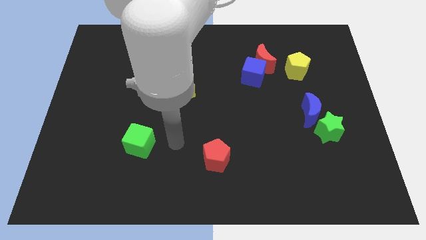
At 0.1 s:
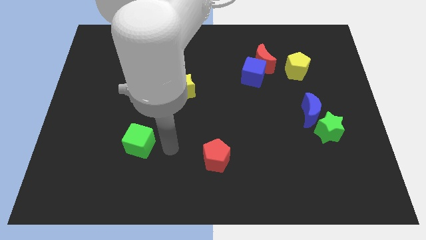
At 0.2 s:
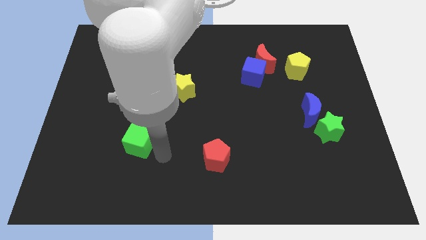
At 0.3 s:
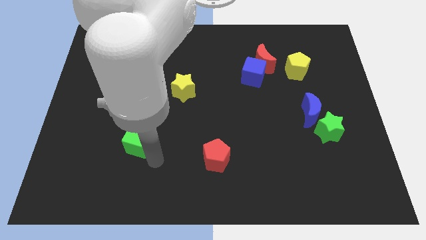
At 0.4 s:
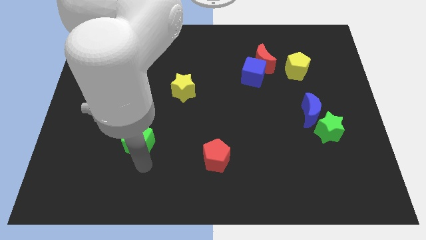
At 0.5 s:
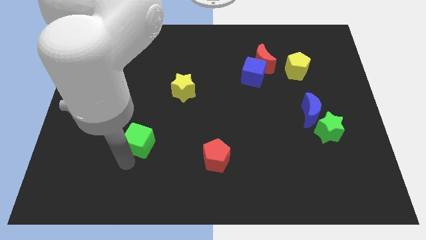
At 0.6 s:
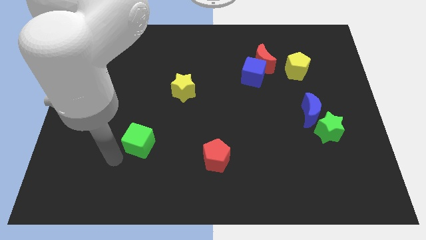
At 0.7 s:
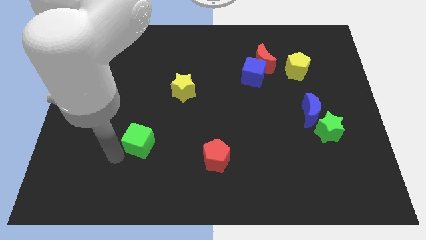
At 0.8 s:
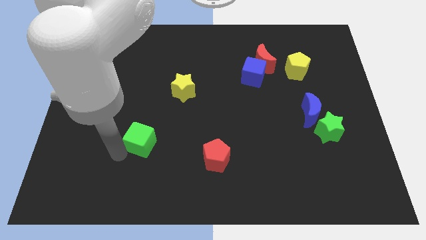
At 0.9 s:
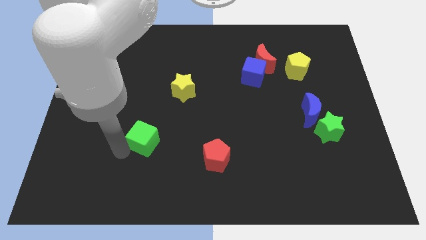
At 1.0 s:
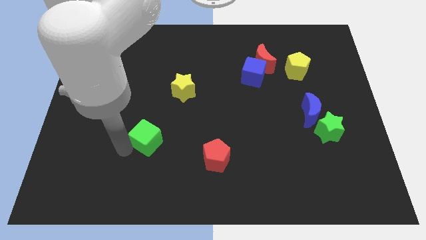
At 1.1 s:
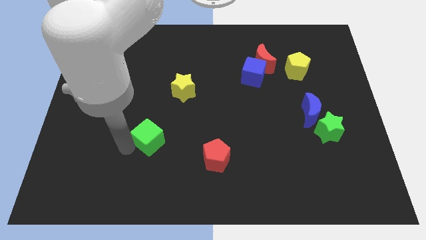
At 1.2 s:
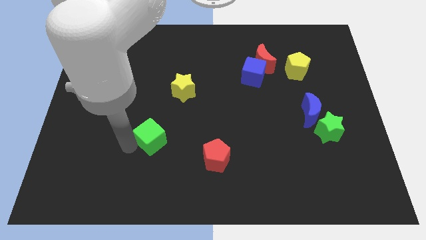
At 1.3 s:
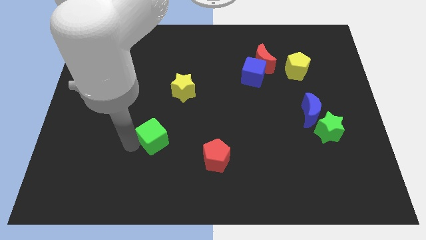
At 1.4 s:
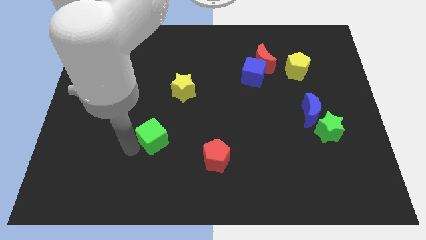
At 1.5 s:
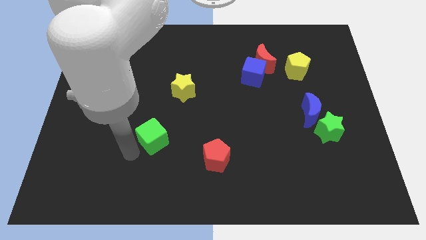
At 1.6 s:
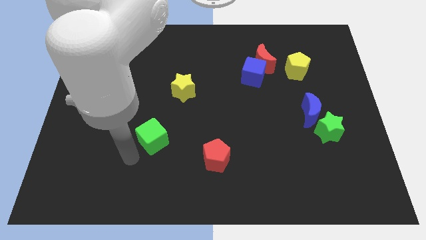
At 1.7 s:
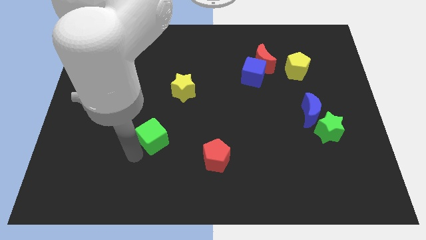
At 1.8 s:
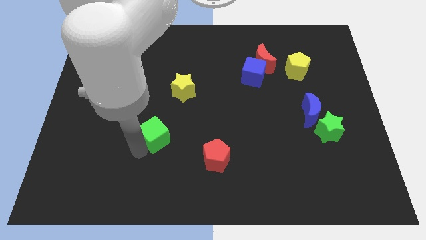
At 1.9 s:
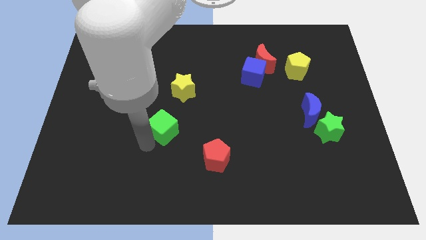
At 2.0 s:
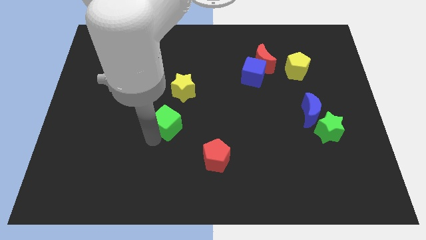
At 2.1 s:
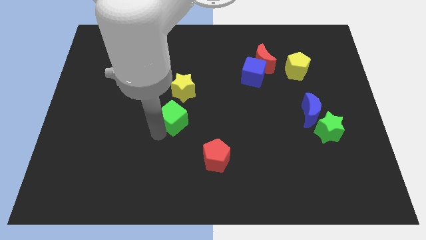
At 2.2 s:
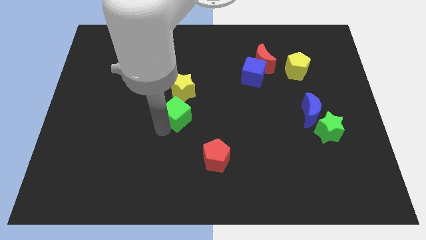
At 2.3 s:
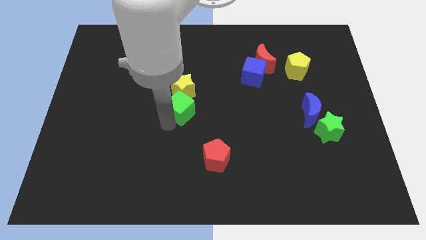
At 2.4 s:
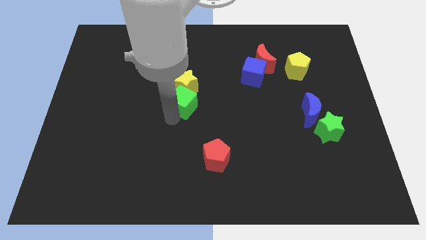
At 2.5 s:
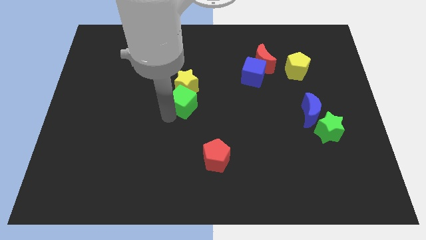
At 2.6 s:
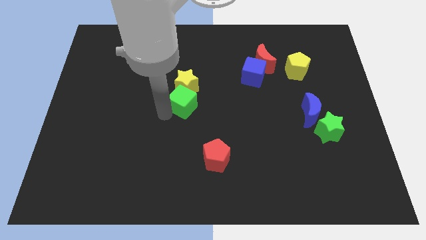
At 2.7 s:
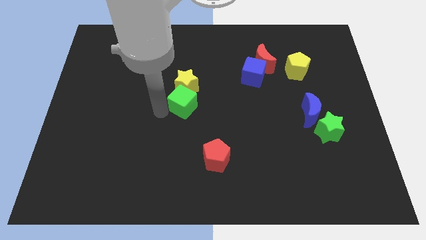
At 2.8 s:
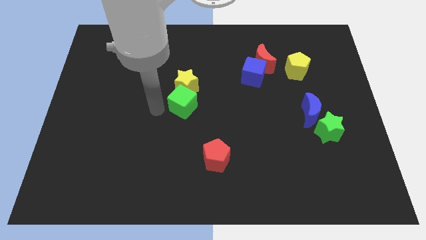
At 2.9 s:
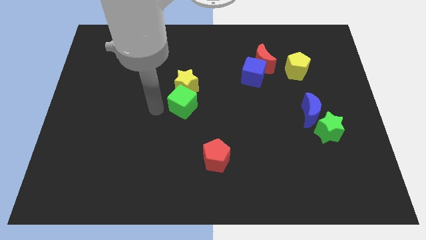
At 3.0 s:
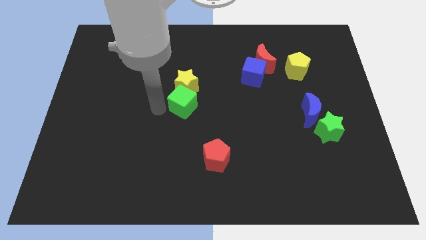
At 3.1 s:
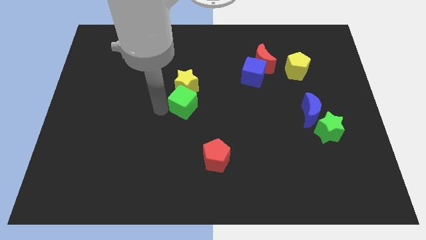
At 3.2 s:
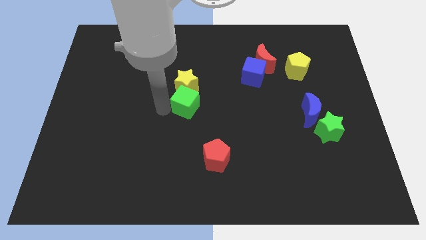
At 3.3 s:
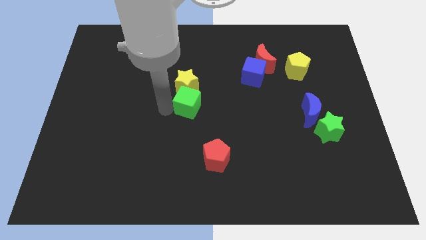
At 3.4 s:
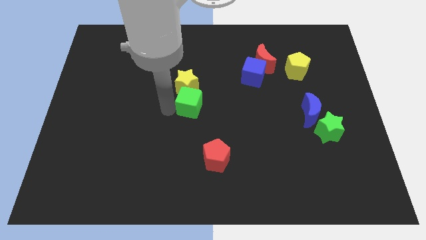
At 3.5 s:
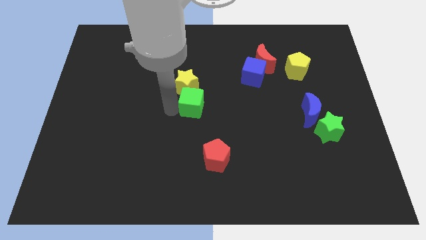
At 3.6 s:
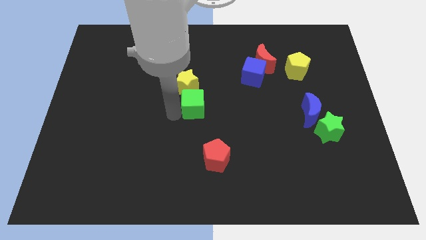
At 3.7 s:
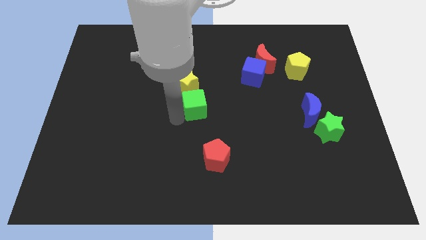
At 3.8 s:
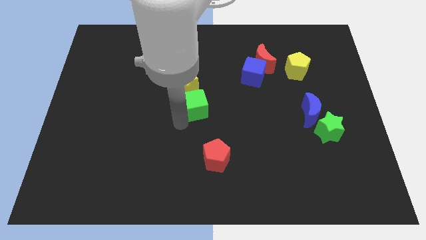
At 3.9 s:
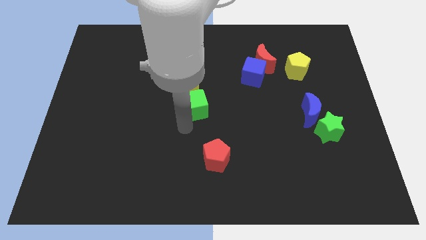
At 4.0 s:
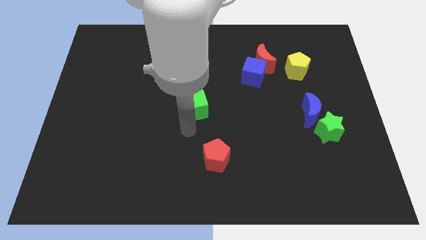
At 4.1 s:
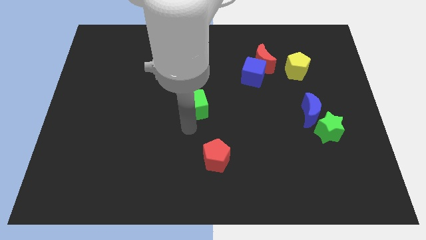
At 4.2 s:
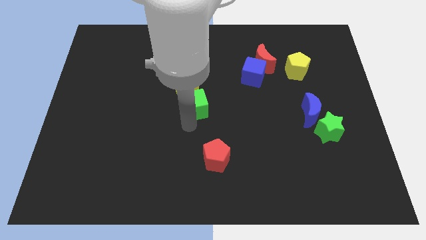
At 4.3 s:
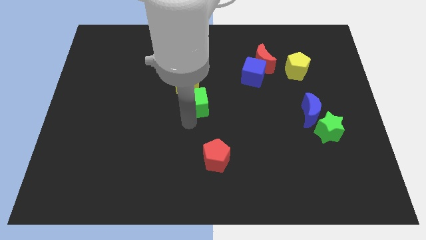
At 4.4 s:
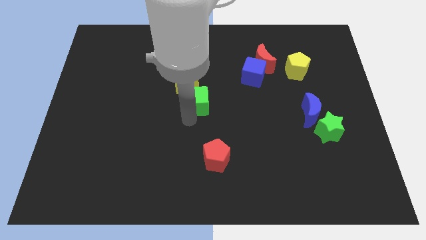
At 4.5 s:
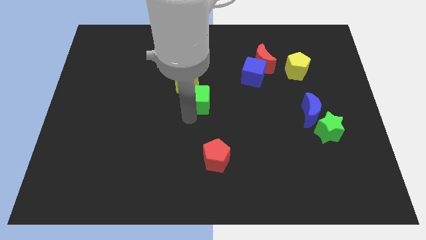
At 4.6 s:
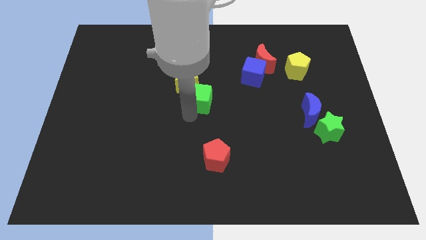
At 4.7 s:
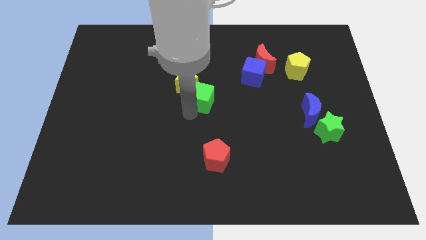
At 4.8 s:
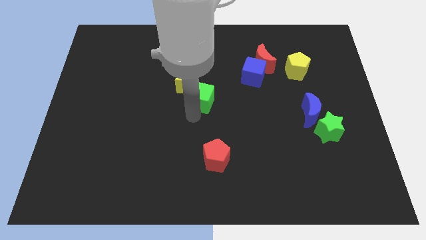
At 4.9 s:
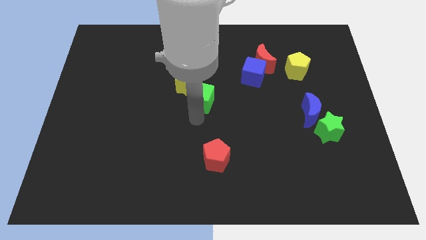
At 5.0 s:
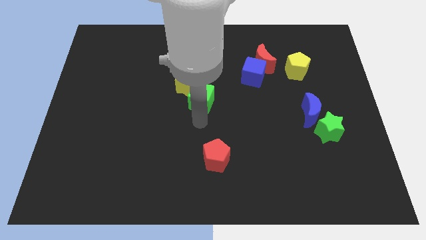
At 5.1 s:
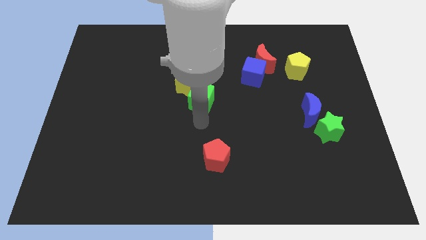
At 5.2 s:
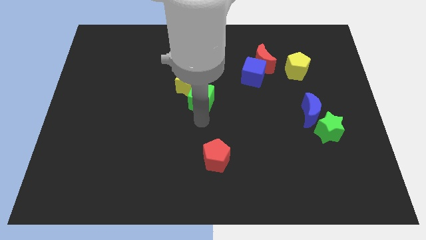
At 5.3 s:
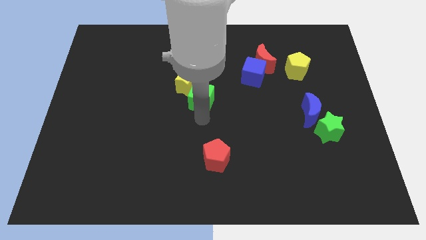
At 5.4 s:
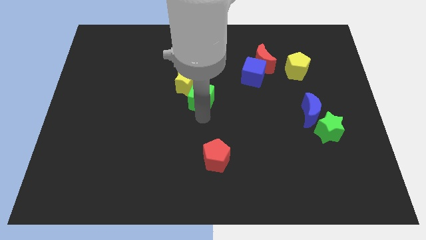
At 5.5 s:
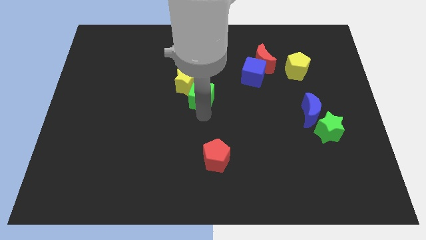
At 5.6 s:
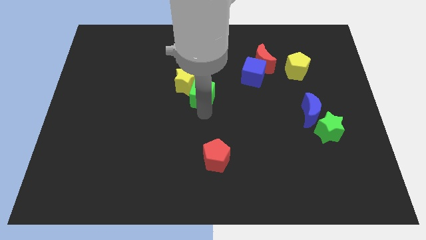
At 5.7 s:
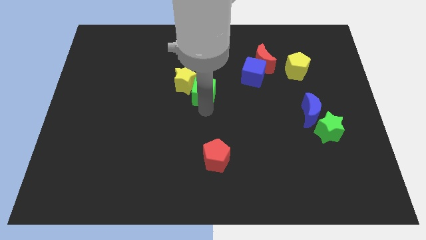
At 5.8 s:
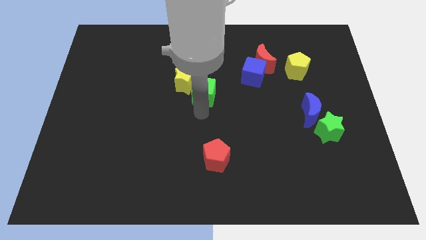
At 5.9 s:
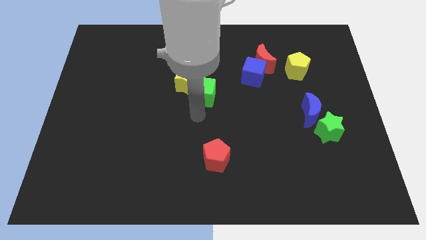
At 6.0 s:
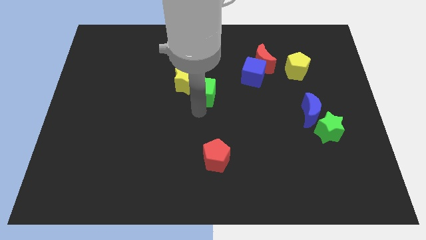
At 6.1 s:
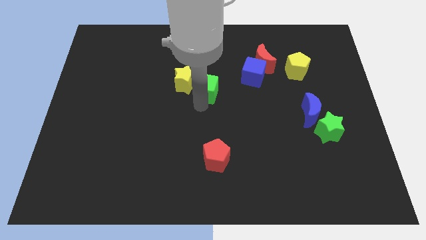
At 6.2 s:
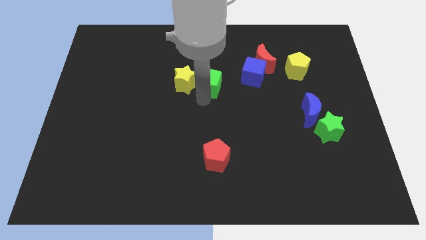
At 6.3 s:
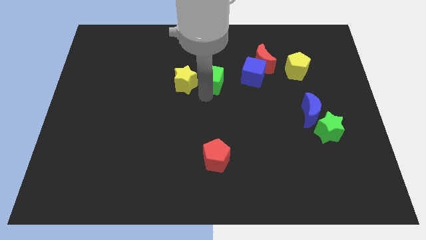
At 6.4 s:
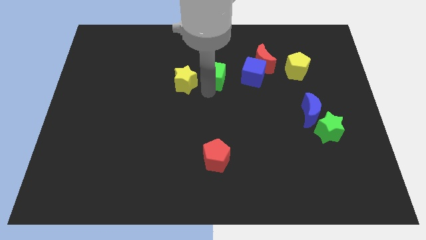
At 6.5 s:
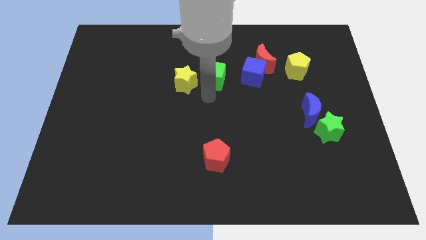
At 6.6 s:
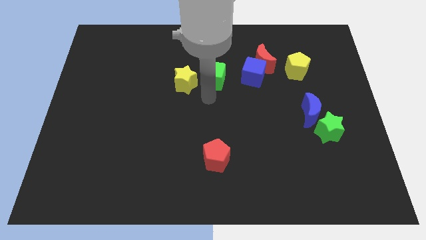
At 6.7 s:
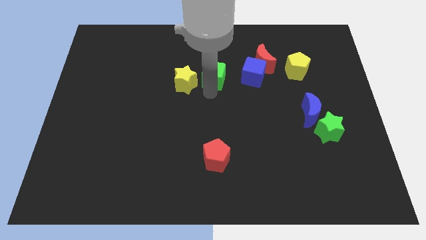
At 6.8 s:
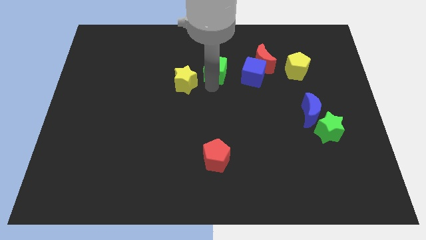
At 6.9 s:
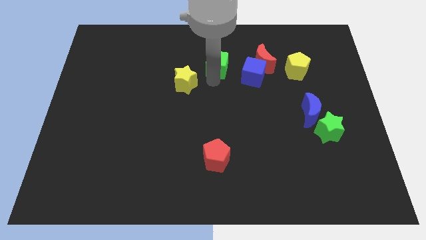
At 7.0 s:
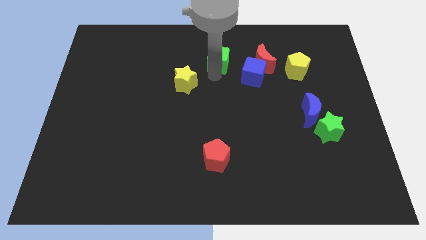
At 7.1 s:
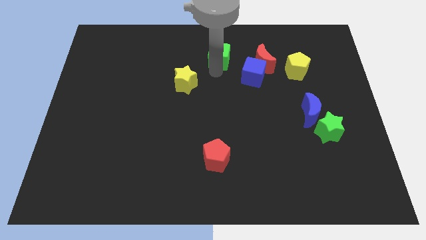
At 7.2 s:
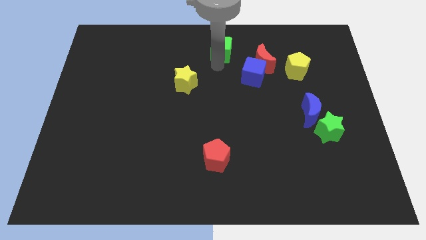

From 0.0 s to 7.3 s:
slide the green cube to the top
